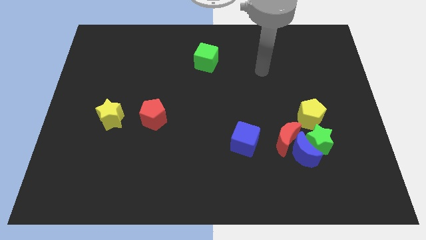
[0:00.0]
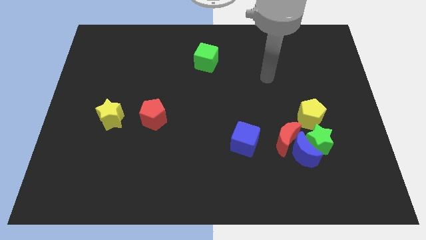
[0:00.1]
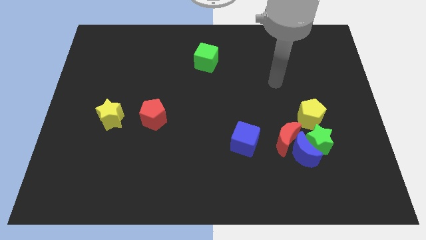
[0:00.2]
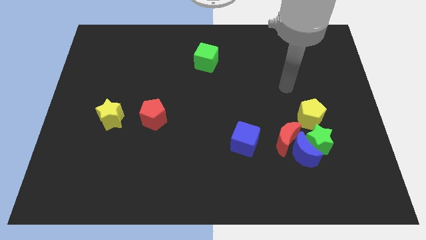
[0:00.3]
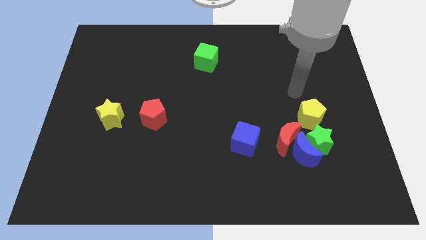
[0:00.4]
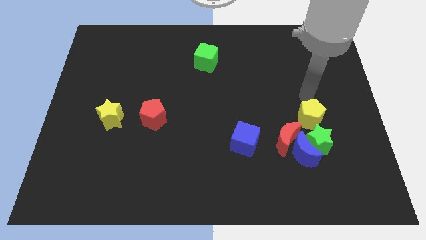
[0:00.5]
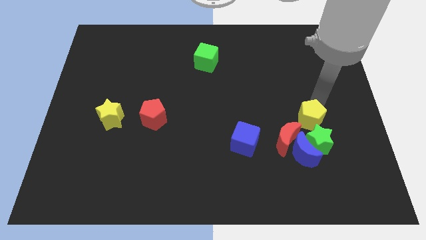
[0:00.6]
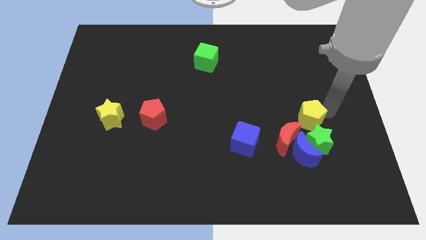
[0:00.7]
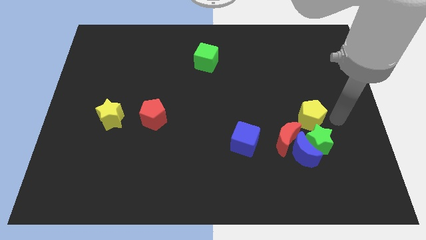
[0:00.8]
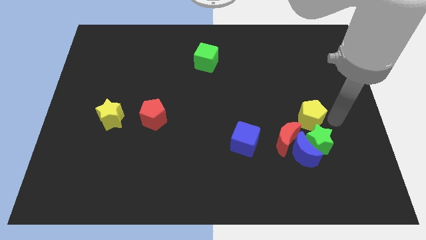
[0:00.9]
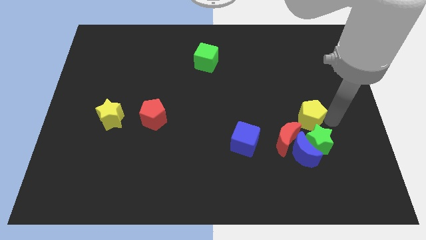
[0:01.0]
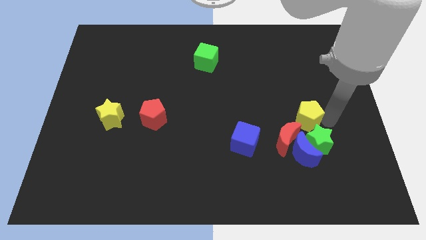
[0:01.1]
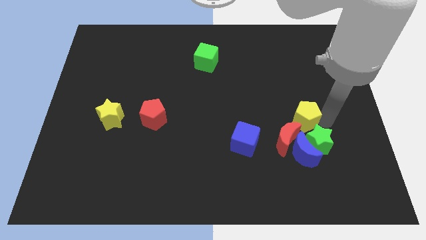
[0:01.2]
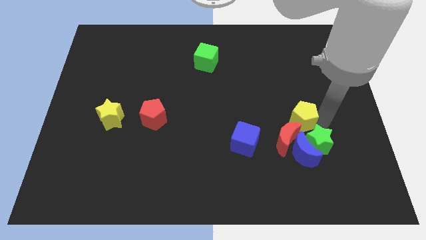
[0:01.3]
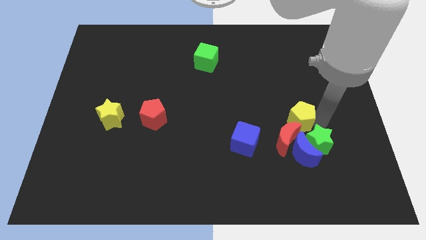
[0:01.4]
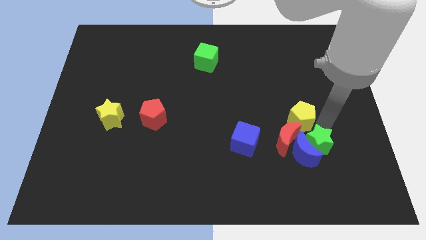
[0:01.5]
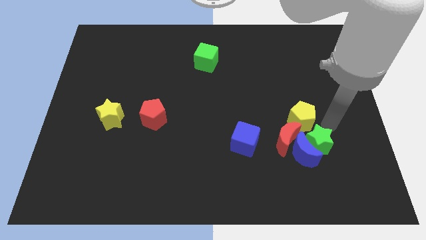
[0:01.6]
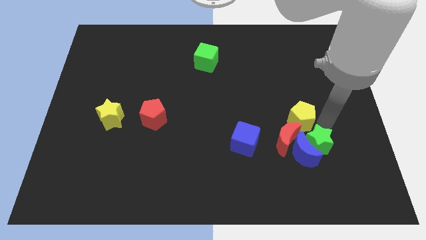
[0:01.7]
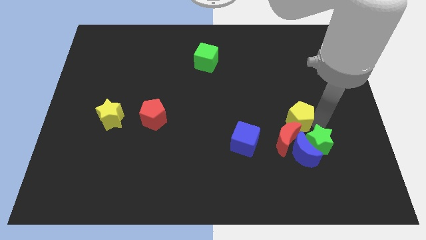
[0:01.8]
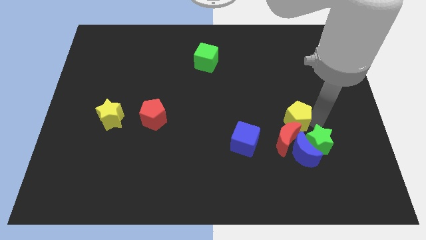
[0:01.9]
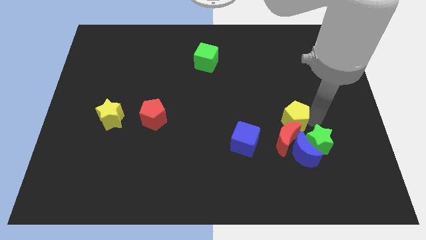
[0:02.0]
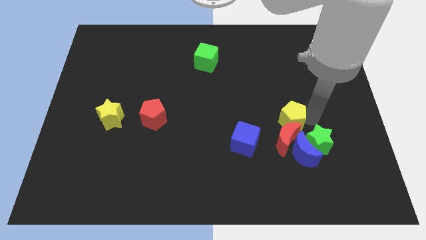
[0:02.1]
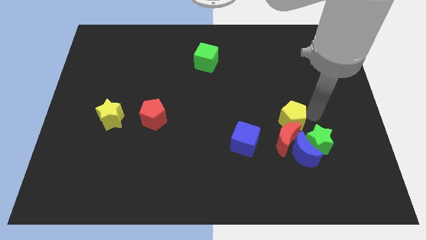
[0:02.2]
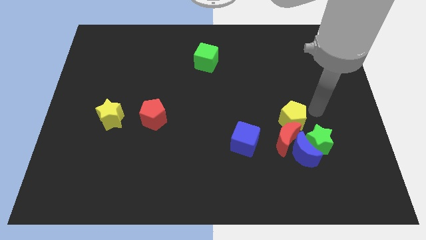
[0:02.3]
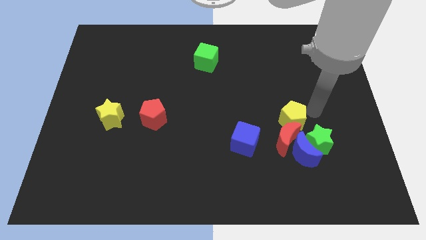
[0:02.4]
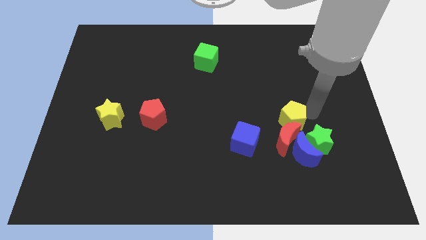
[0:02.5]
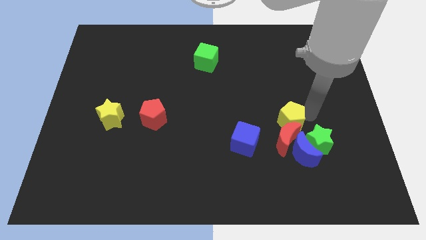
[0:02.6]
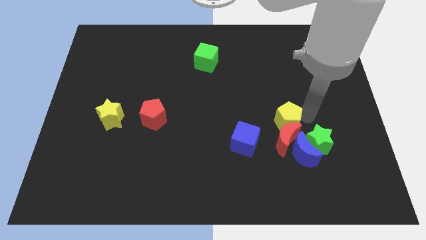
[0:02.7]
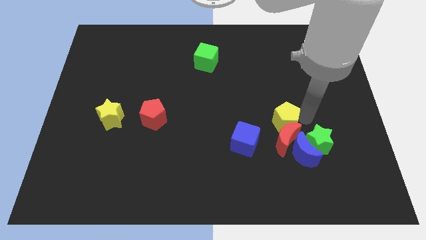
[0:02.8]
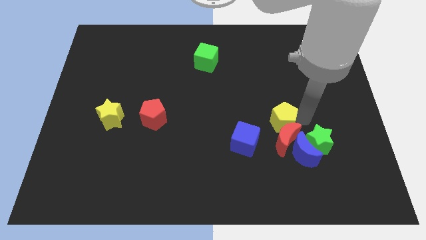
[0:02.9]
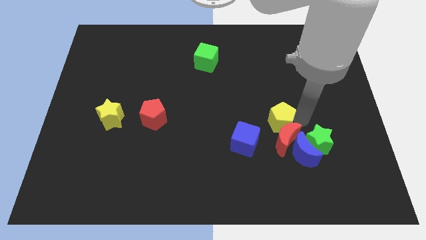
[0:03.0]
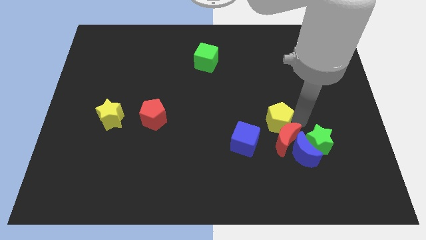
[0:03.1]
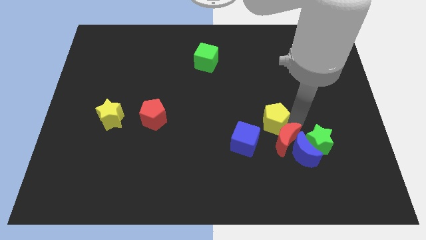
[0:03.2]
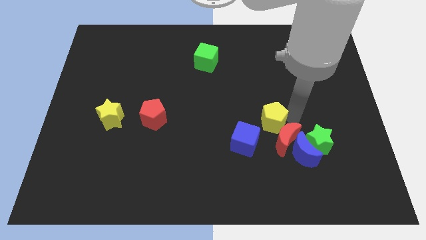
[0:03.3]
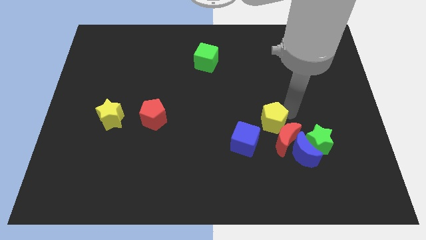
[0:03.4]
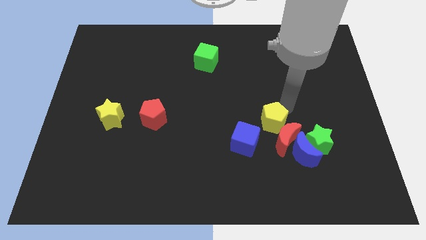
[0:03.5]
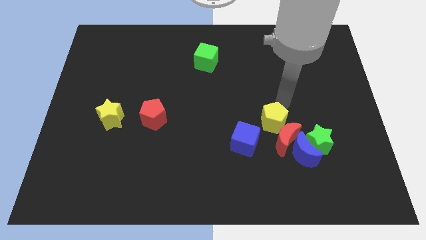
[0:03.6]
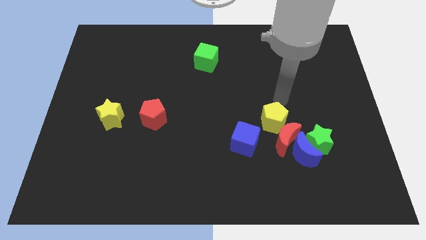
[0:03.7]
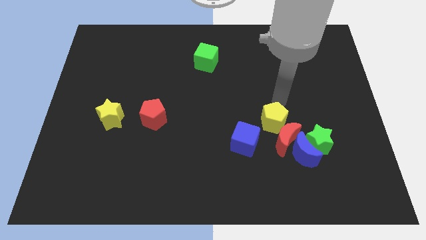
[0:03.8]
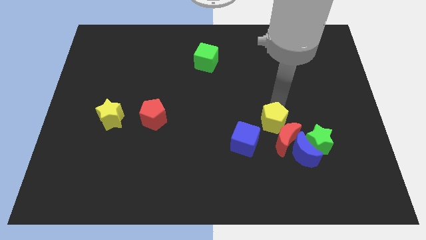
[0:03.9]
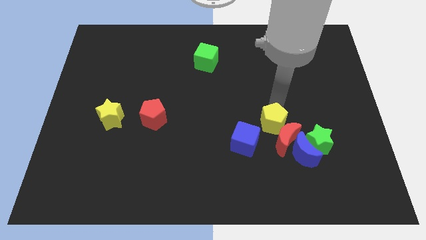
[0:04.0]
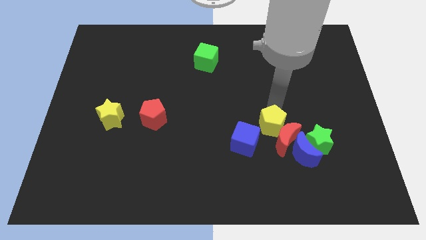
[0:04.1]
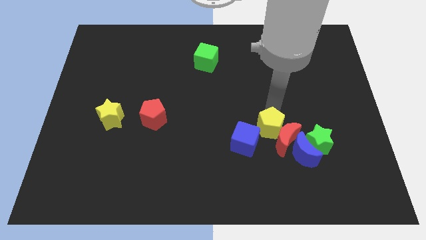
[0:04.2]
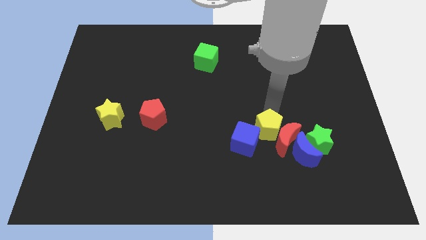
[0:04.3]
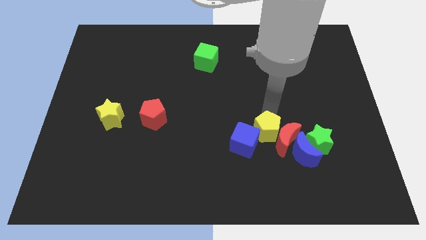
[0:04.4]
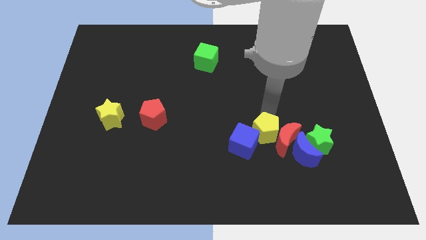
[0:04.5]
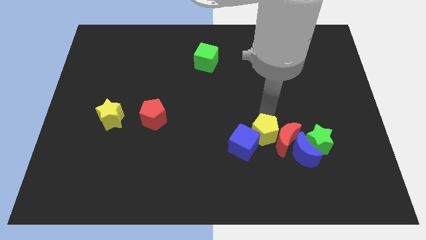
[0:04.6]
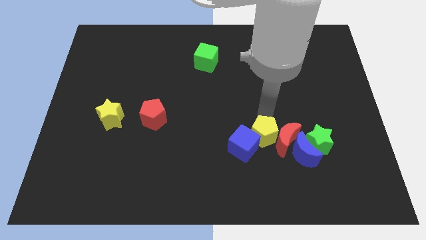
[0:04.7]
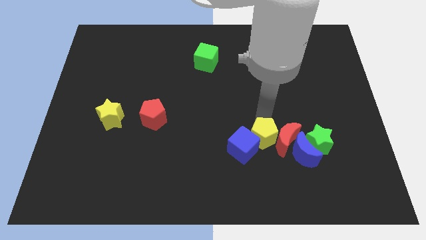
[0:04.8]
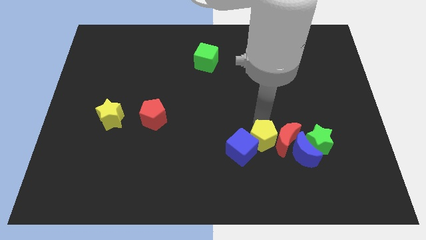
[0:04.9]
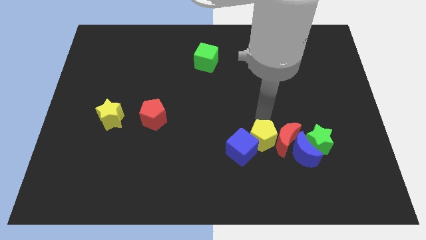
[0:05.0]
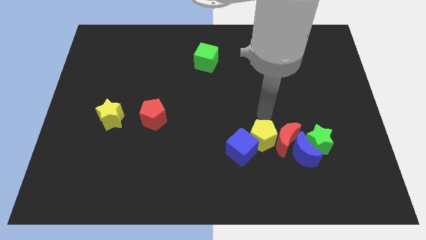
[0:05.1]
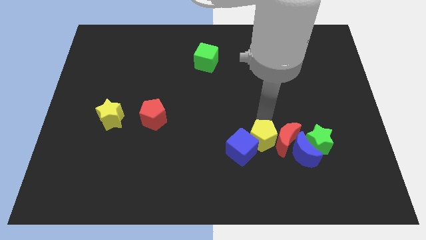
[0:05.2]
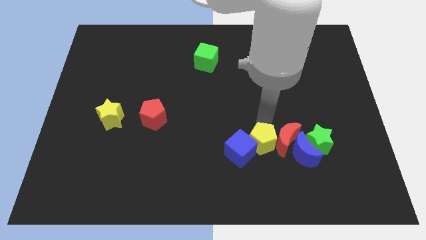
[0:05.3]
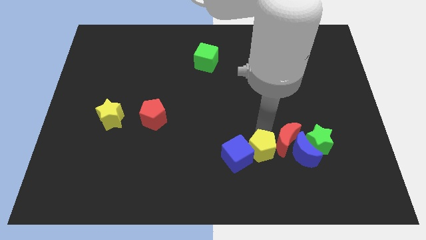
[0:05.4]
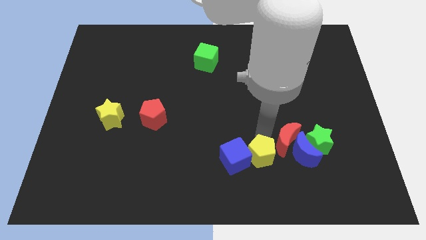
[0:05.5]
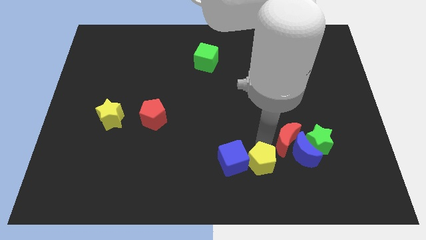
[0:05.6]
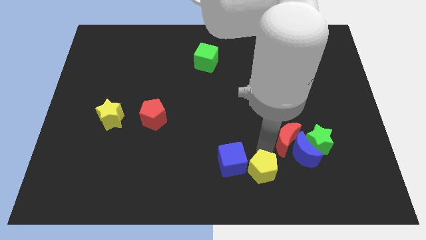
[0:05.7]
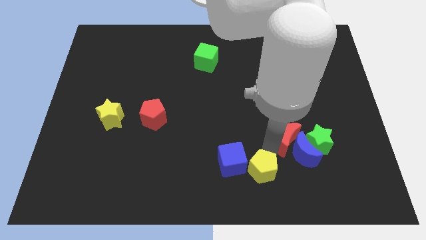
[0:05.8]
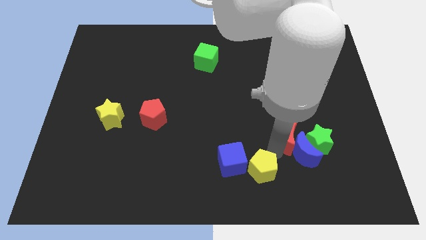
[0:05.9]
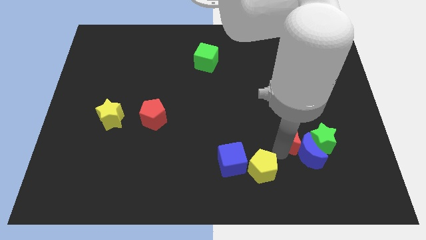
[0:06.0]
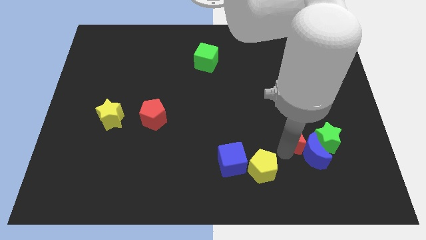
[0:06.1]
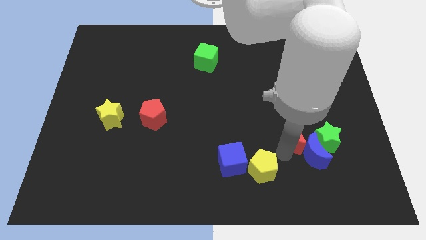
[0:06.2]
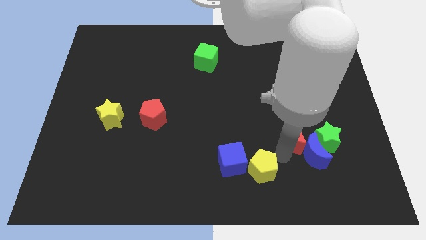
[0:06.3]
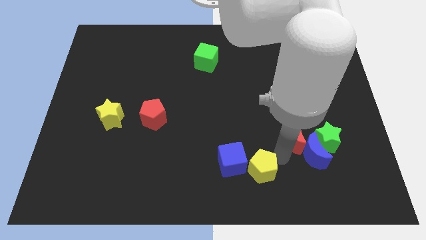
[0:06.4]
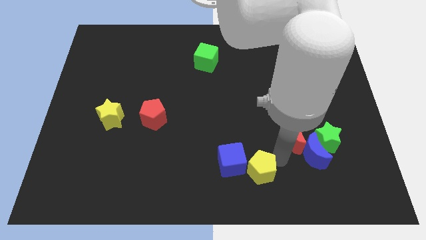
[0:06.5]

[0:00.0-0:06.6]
put the yellow pentagon to the bottom side
